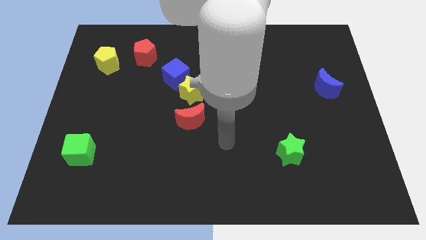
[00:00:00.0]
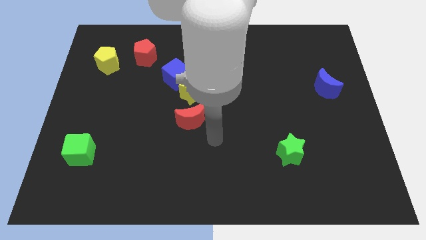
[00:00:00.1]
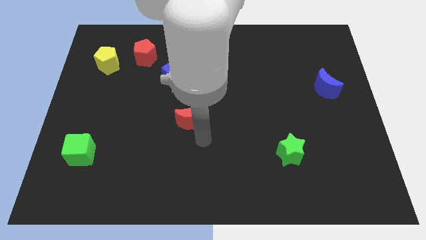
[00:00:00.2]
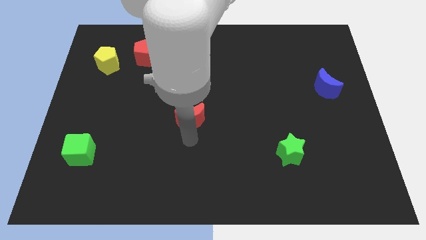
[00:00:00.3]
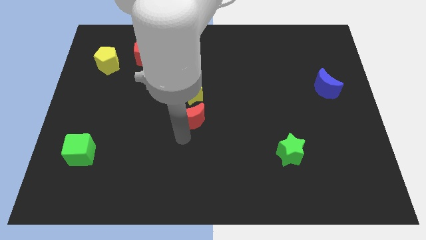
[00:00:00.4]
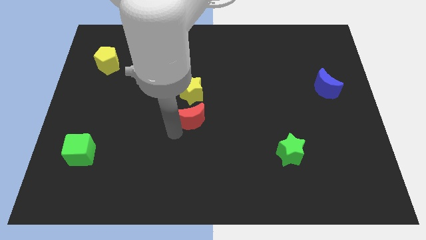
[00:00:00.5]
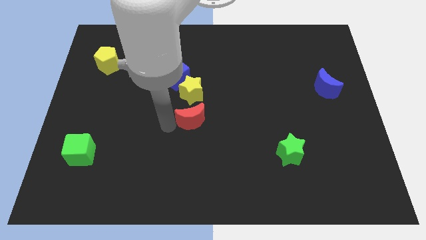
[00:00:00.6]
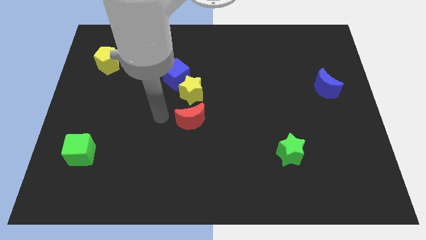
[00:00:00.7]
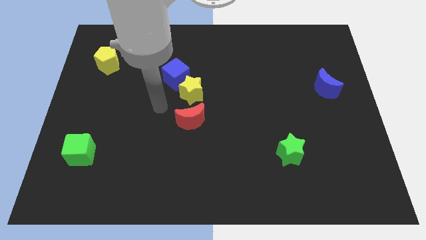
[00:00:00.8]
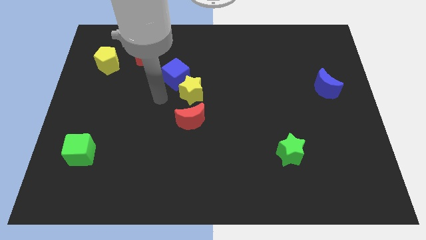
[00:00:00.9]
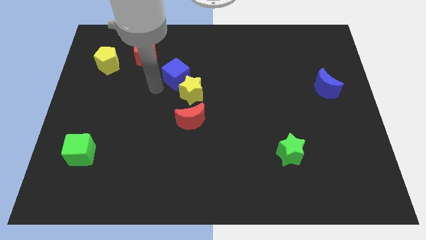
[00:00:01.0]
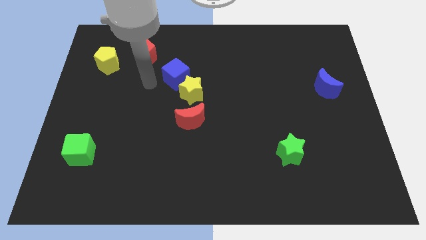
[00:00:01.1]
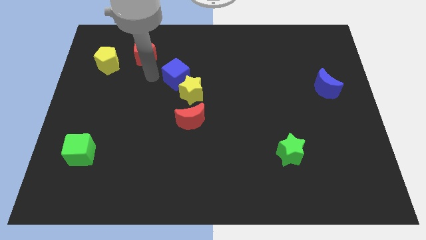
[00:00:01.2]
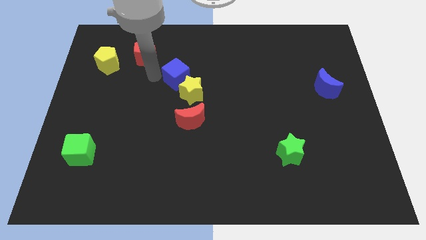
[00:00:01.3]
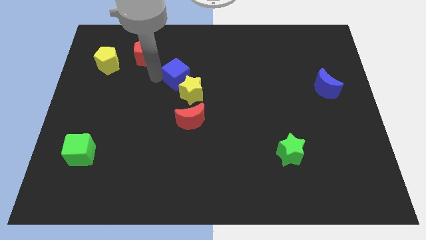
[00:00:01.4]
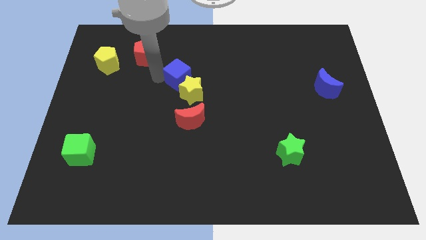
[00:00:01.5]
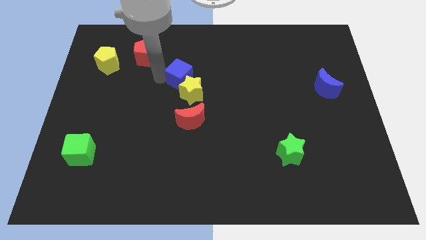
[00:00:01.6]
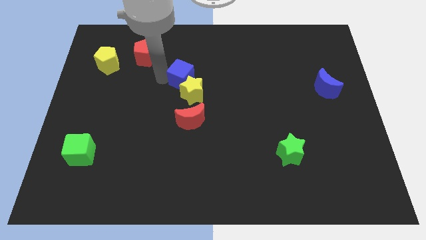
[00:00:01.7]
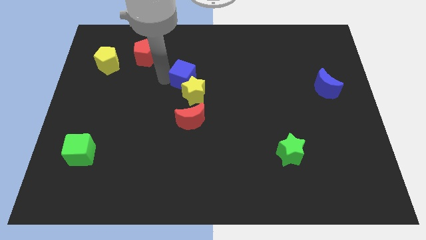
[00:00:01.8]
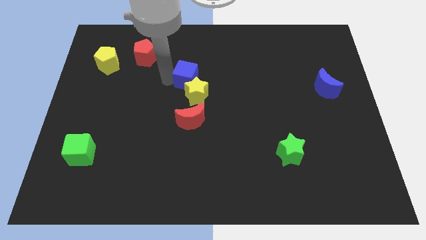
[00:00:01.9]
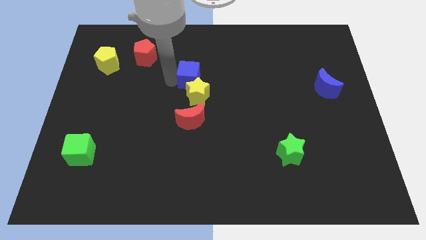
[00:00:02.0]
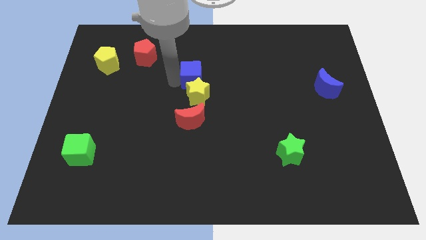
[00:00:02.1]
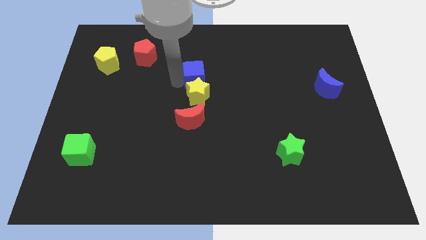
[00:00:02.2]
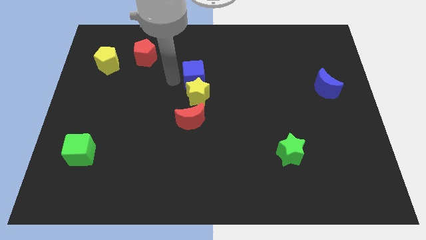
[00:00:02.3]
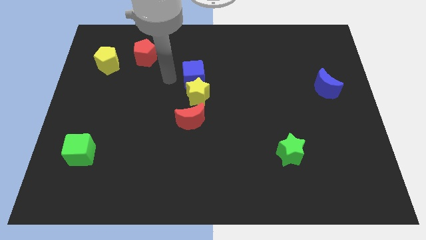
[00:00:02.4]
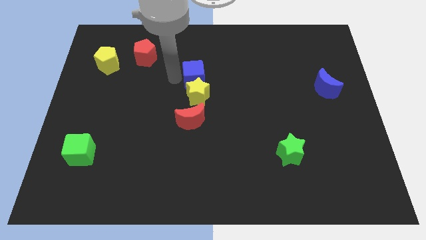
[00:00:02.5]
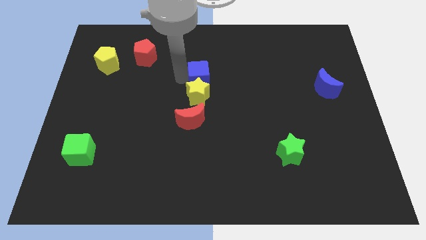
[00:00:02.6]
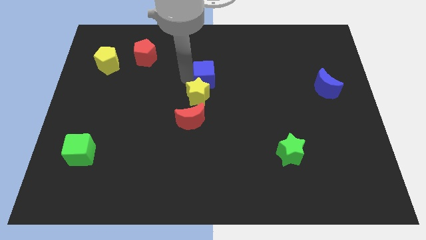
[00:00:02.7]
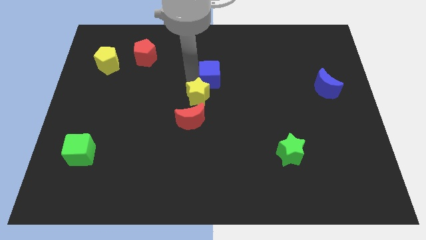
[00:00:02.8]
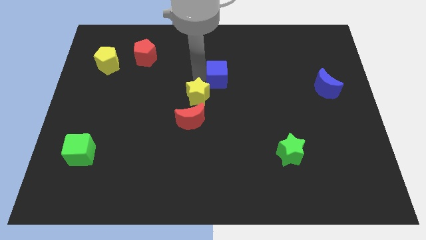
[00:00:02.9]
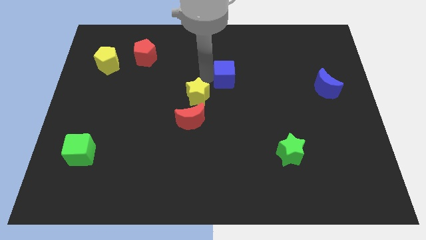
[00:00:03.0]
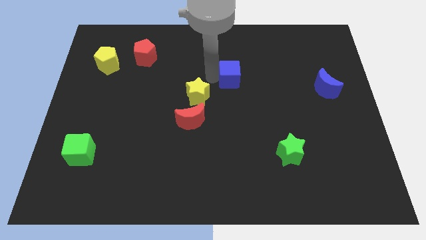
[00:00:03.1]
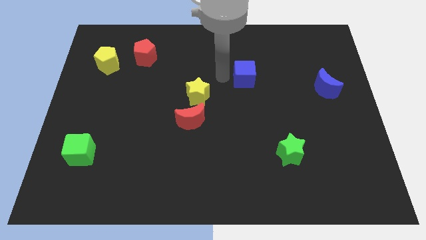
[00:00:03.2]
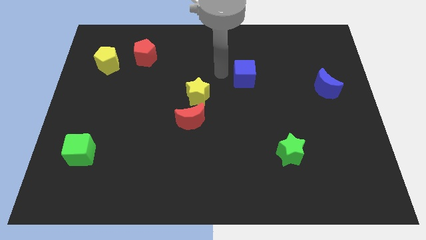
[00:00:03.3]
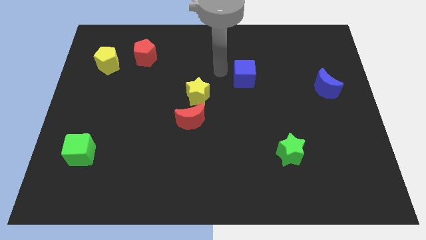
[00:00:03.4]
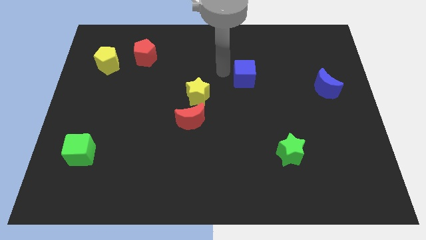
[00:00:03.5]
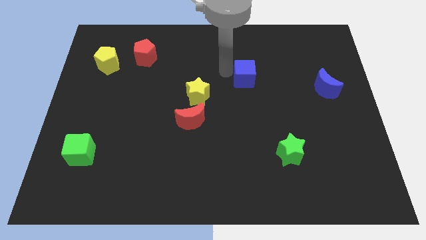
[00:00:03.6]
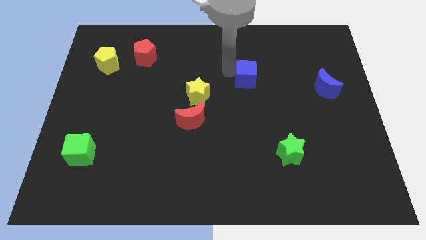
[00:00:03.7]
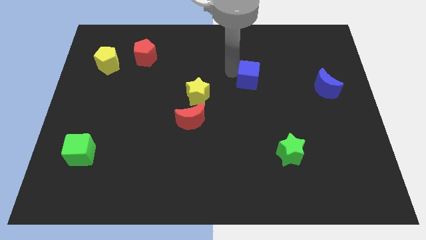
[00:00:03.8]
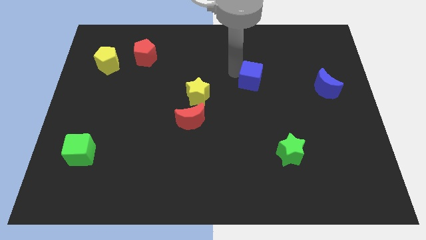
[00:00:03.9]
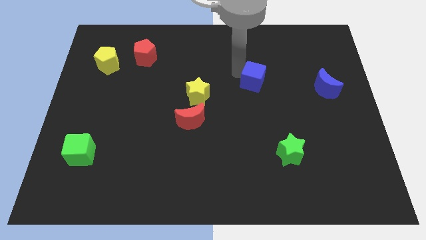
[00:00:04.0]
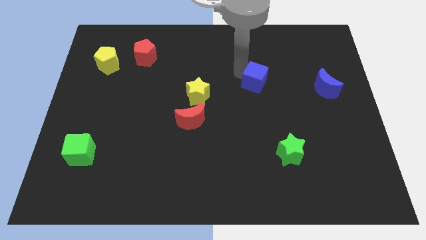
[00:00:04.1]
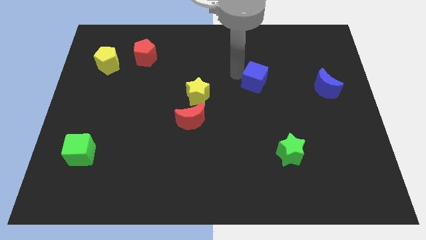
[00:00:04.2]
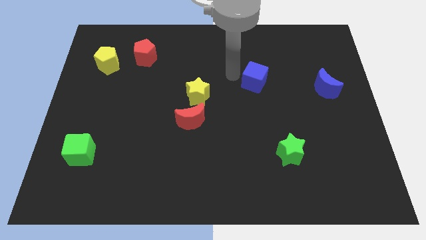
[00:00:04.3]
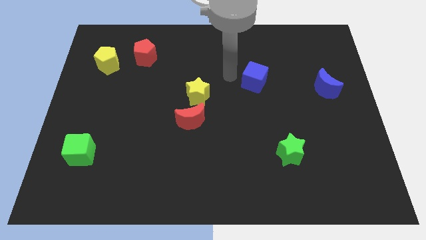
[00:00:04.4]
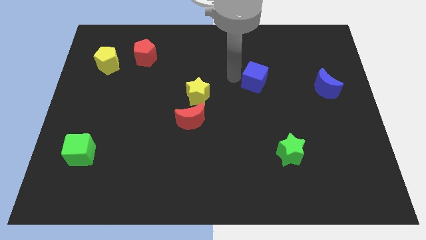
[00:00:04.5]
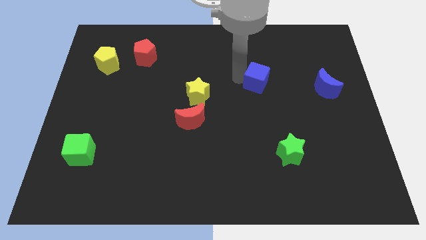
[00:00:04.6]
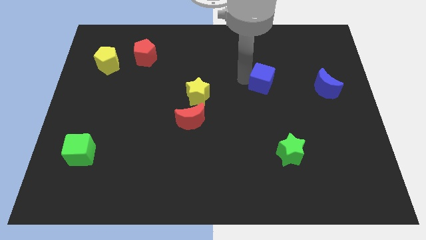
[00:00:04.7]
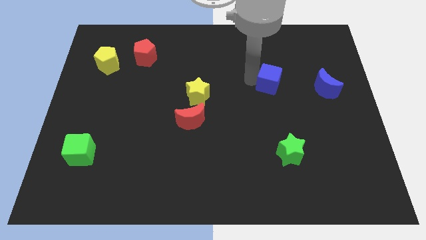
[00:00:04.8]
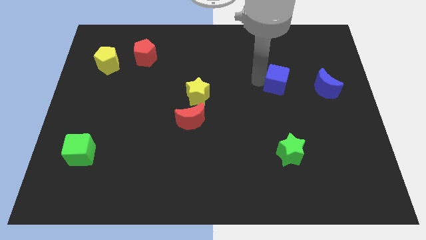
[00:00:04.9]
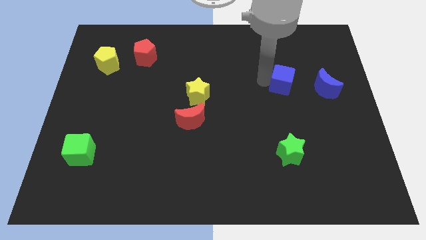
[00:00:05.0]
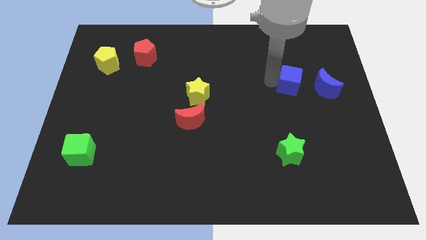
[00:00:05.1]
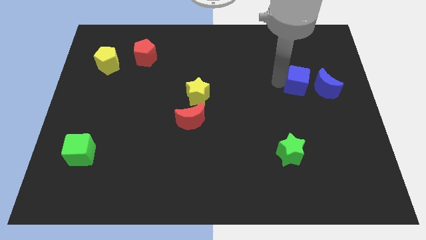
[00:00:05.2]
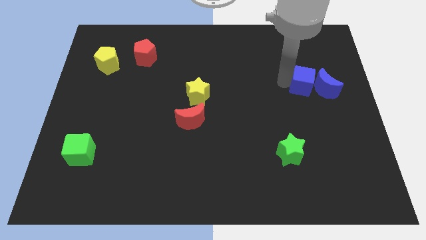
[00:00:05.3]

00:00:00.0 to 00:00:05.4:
put the blue cube to the blue moon

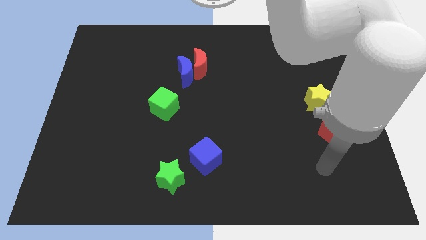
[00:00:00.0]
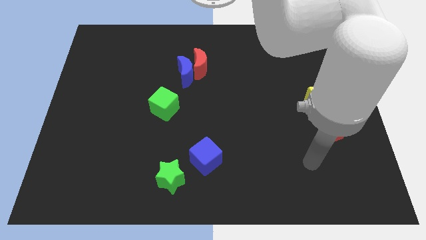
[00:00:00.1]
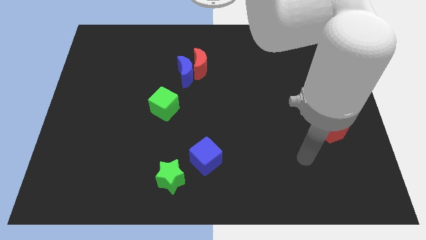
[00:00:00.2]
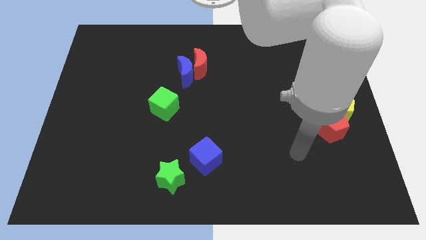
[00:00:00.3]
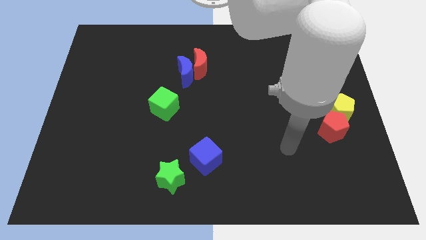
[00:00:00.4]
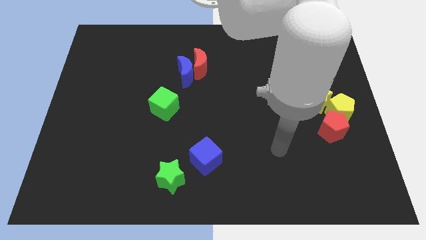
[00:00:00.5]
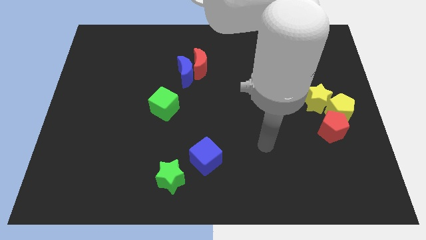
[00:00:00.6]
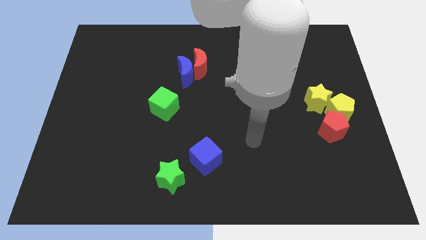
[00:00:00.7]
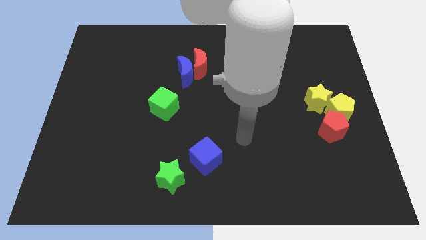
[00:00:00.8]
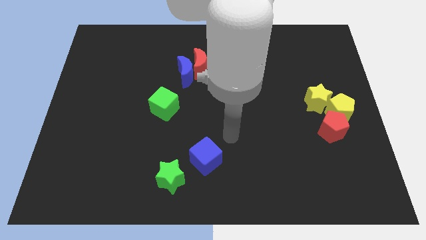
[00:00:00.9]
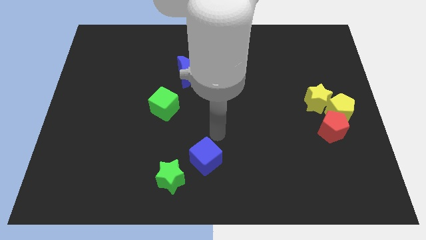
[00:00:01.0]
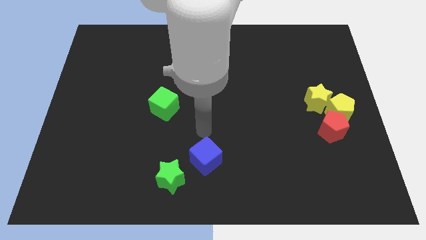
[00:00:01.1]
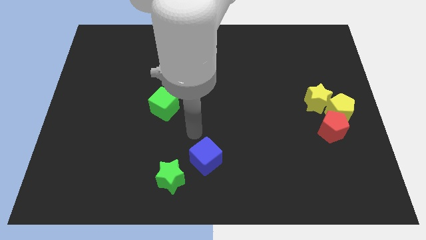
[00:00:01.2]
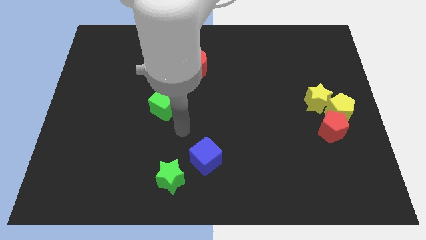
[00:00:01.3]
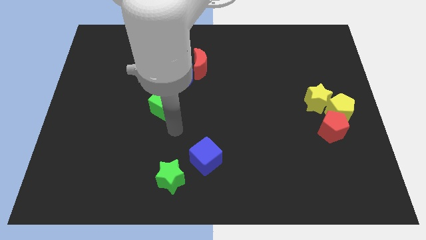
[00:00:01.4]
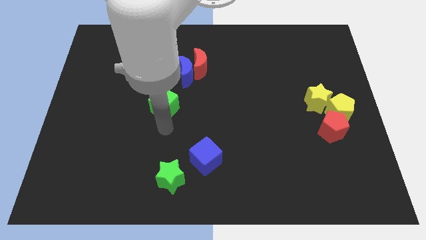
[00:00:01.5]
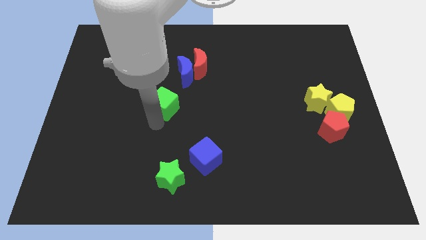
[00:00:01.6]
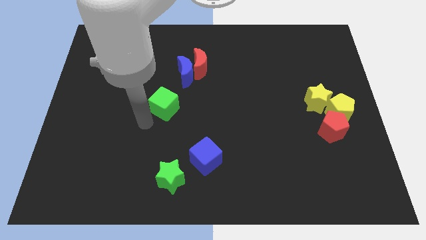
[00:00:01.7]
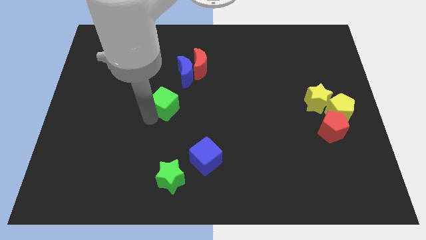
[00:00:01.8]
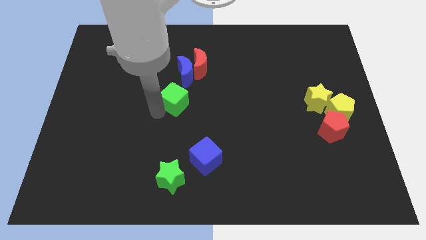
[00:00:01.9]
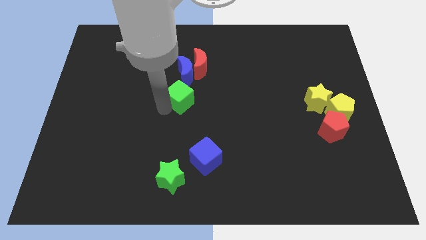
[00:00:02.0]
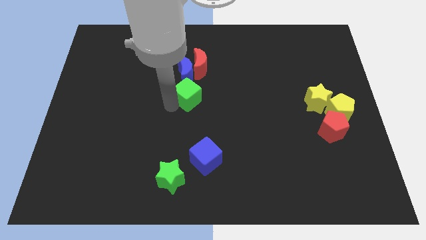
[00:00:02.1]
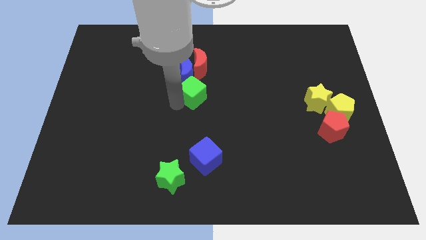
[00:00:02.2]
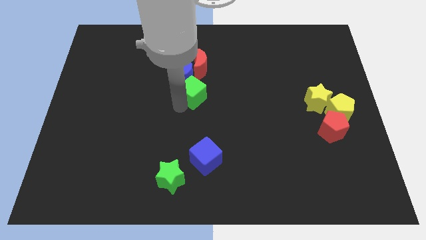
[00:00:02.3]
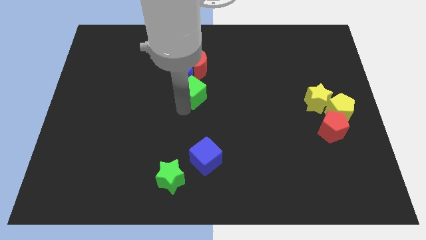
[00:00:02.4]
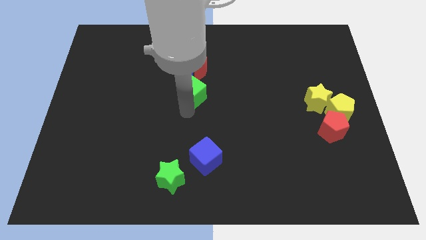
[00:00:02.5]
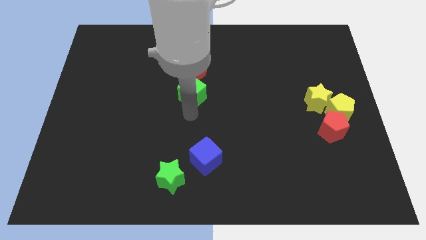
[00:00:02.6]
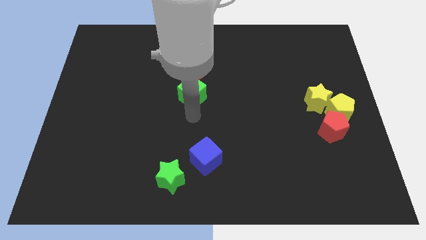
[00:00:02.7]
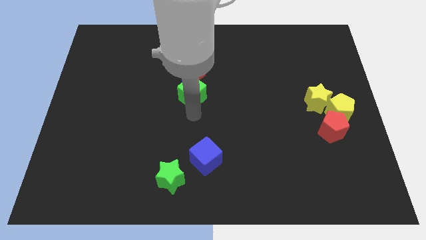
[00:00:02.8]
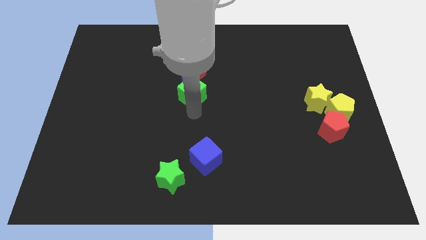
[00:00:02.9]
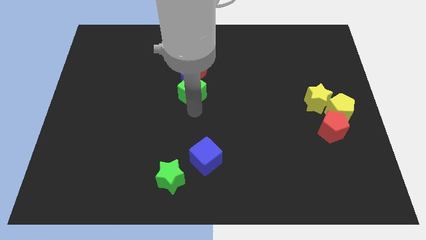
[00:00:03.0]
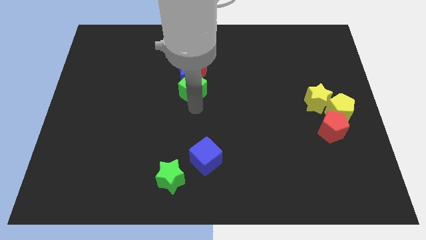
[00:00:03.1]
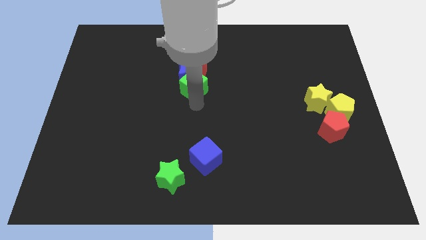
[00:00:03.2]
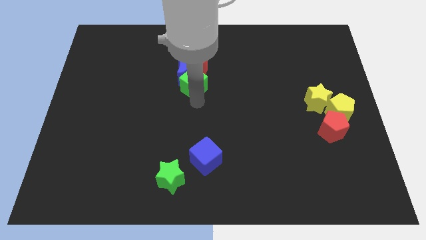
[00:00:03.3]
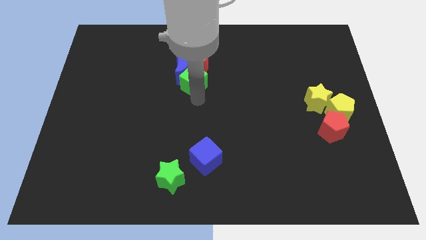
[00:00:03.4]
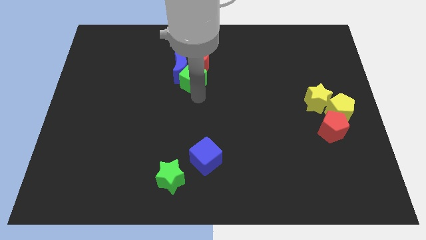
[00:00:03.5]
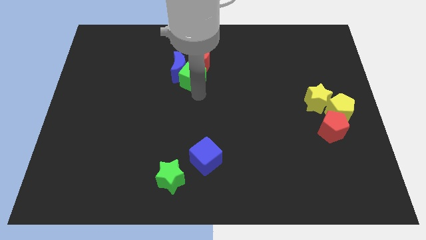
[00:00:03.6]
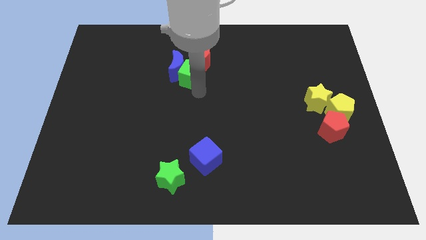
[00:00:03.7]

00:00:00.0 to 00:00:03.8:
push the green cube close to the red moon
